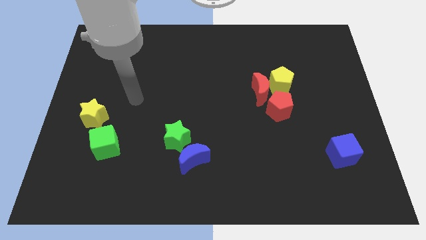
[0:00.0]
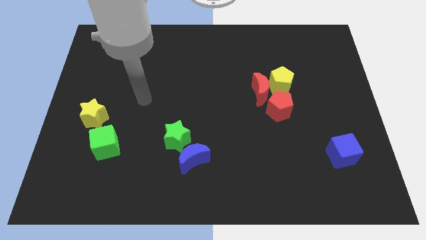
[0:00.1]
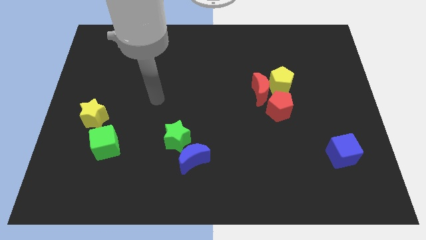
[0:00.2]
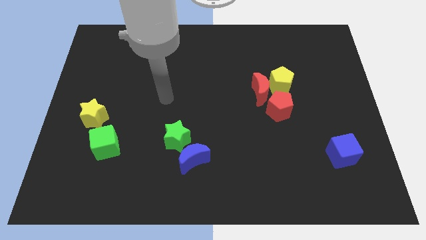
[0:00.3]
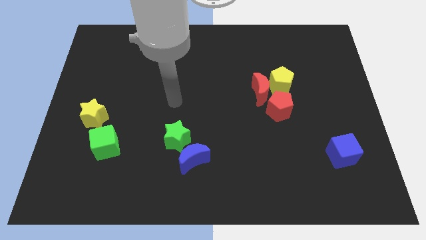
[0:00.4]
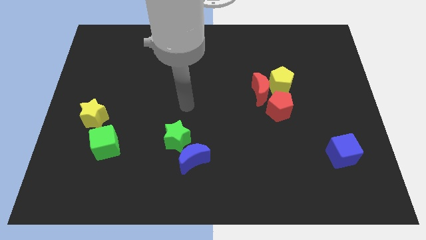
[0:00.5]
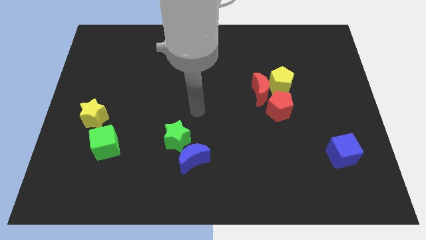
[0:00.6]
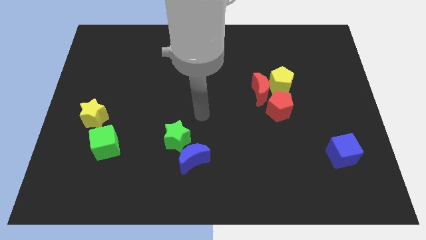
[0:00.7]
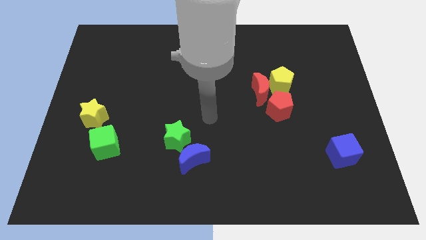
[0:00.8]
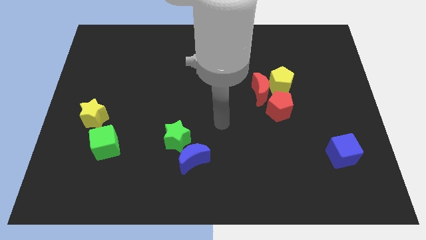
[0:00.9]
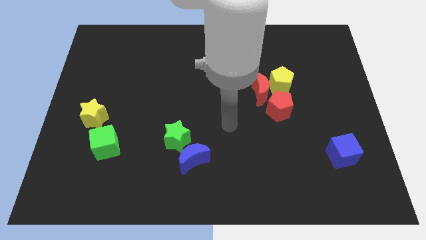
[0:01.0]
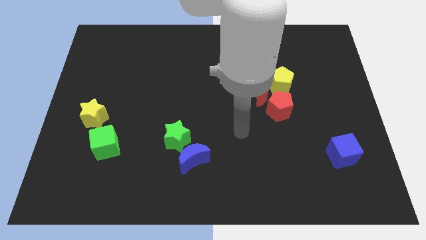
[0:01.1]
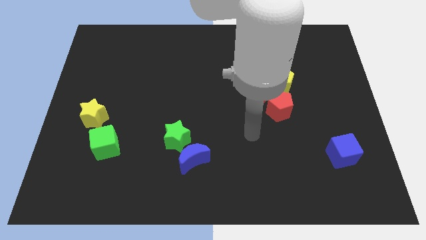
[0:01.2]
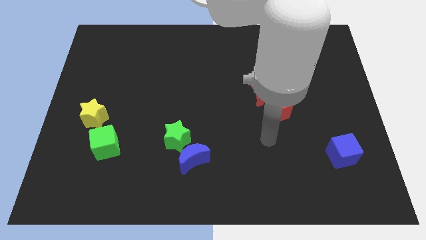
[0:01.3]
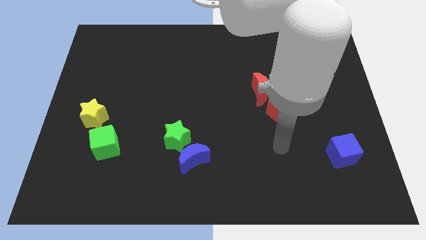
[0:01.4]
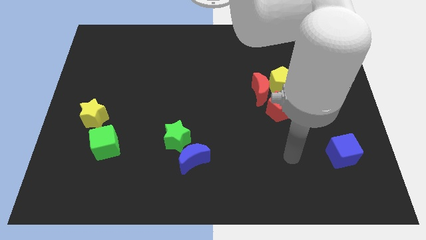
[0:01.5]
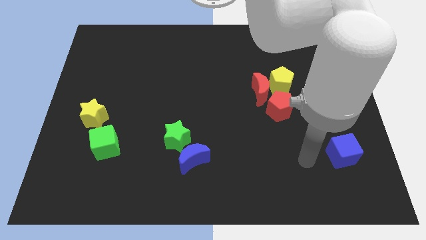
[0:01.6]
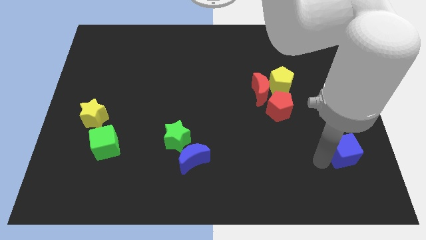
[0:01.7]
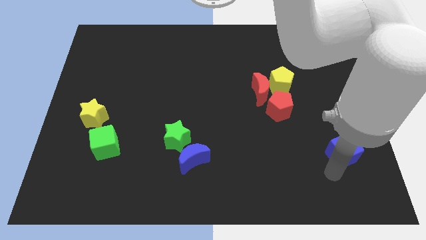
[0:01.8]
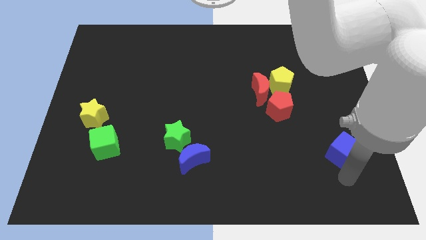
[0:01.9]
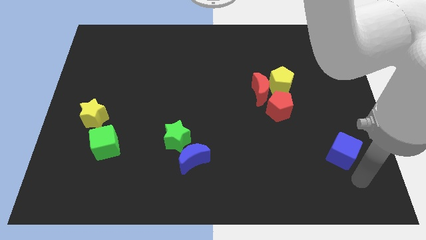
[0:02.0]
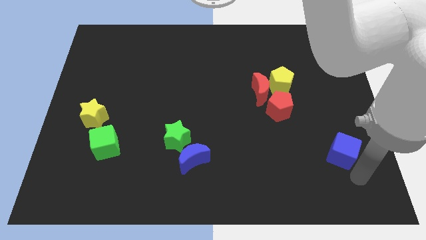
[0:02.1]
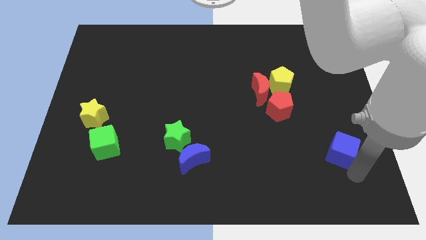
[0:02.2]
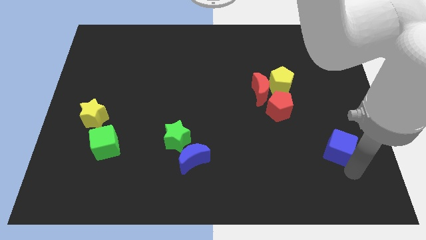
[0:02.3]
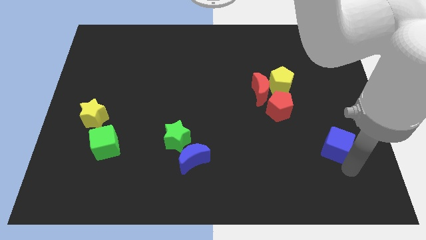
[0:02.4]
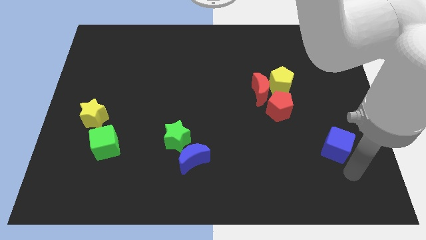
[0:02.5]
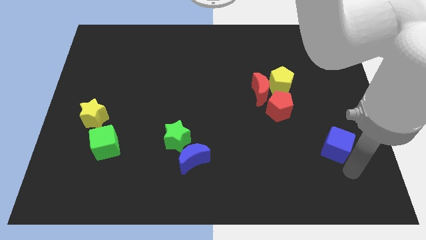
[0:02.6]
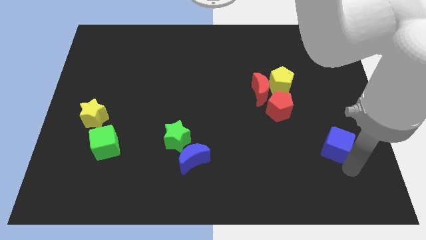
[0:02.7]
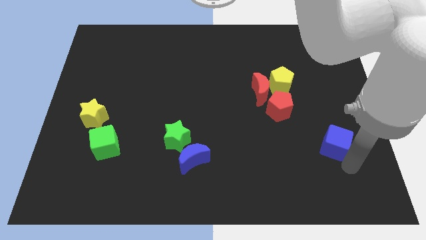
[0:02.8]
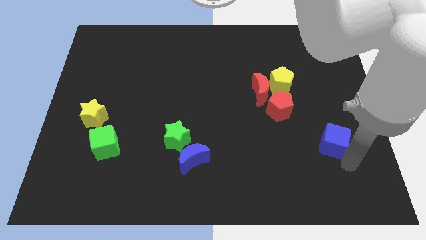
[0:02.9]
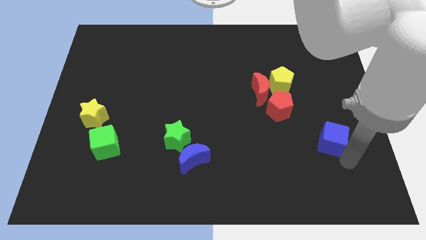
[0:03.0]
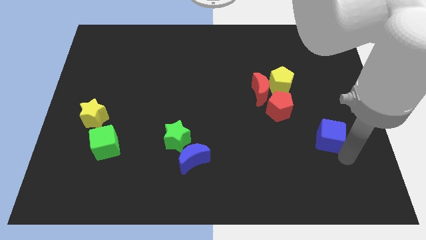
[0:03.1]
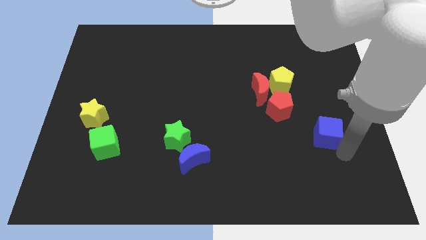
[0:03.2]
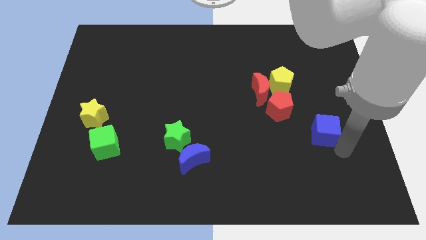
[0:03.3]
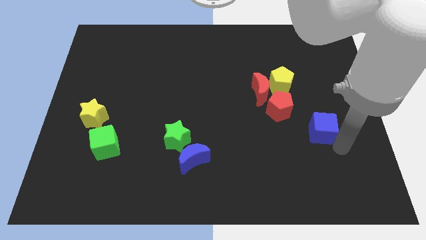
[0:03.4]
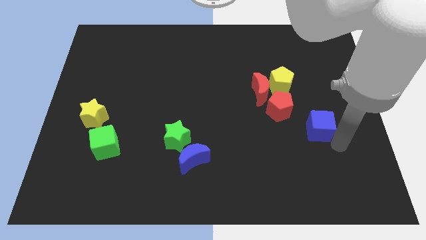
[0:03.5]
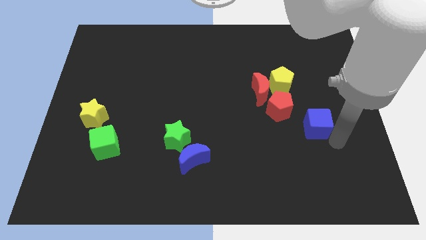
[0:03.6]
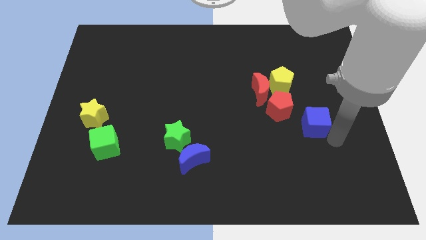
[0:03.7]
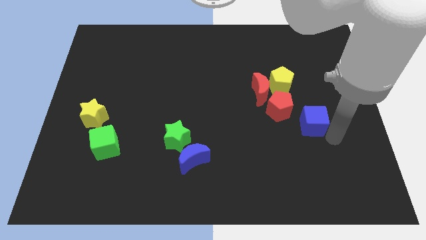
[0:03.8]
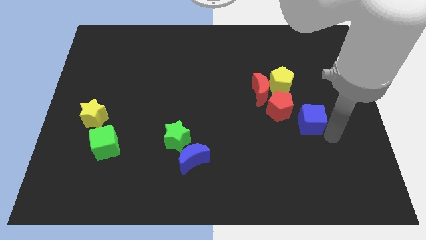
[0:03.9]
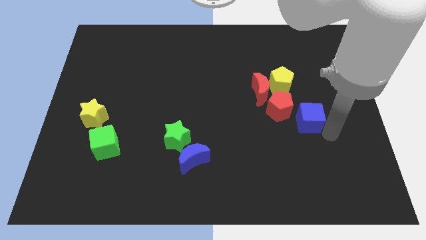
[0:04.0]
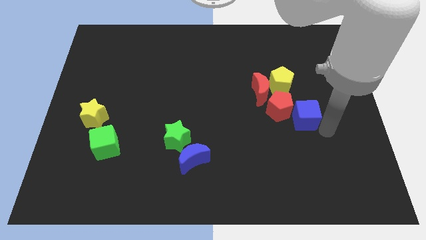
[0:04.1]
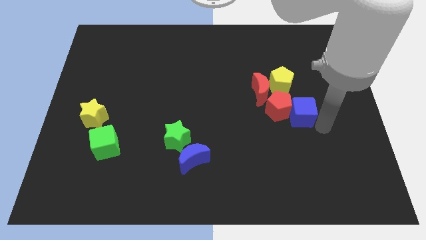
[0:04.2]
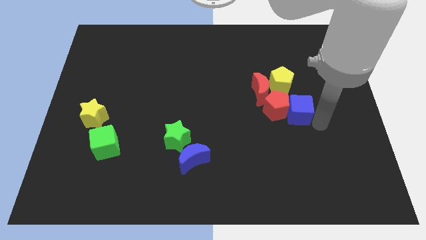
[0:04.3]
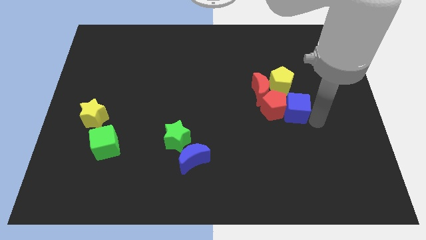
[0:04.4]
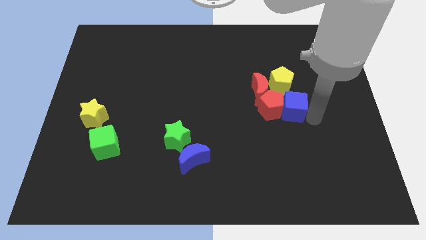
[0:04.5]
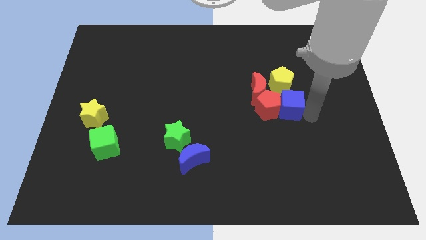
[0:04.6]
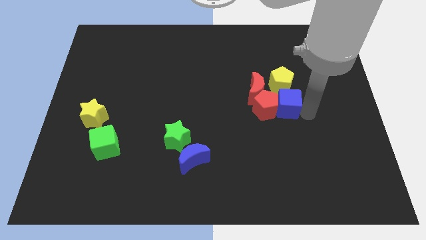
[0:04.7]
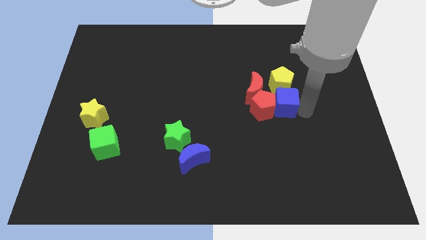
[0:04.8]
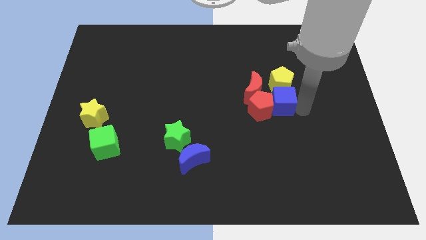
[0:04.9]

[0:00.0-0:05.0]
slide the blue cube to the yellow pentagon

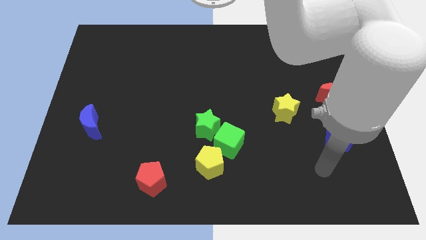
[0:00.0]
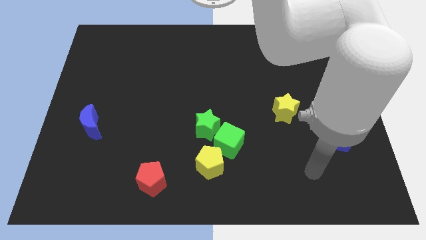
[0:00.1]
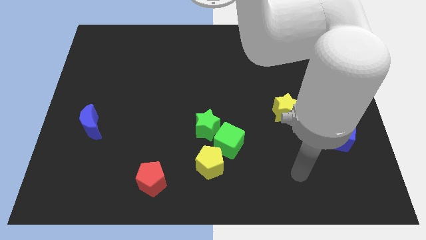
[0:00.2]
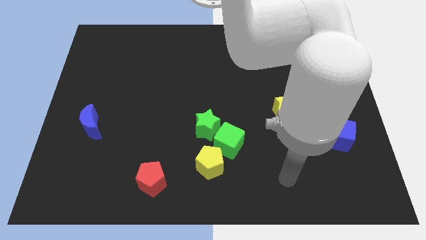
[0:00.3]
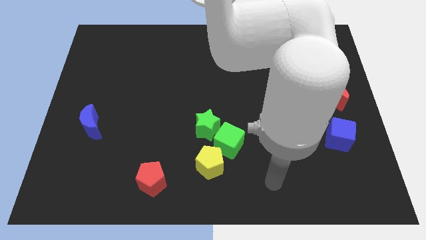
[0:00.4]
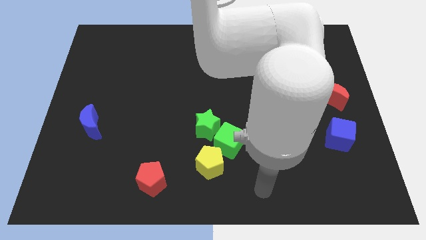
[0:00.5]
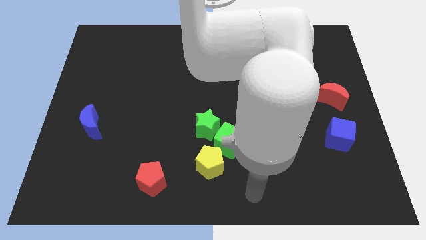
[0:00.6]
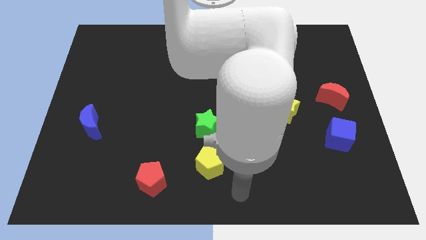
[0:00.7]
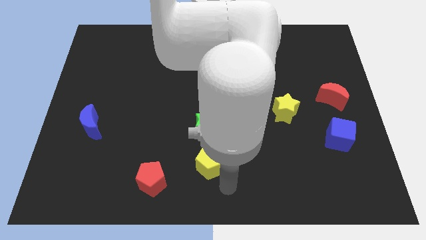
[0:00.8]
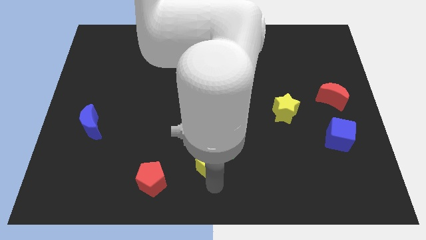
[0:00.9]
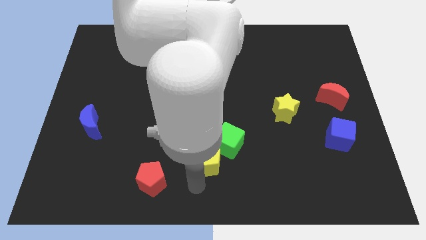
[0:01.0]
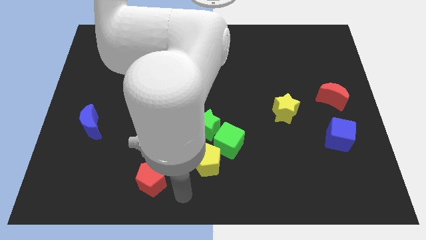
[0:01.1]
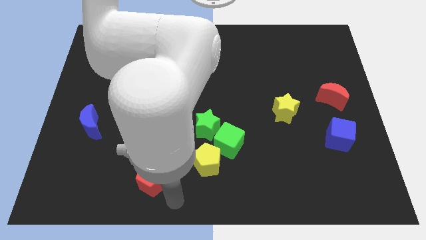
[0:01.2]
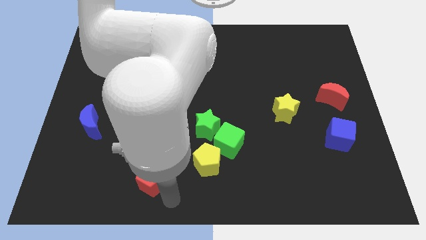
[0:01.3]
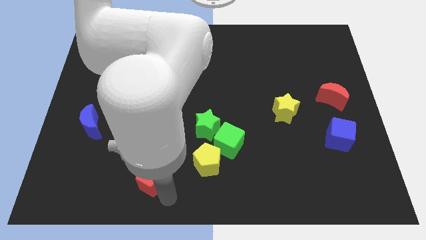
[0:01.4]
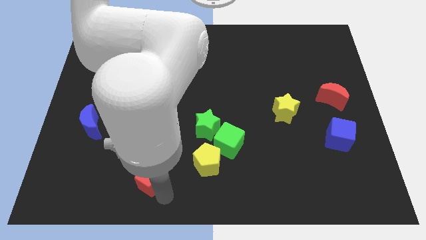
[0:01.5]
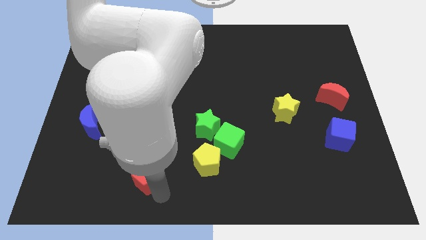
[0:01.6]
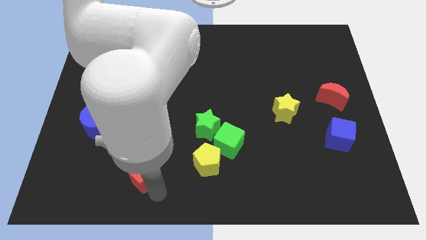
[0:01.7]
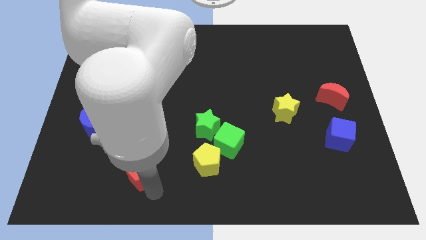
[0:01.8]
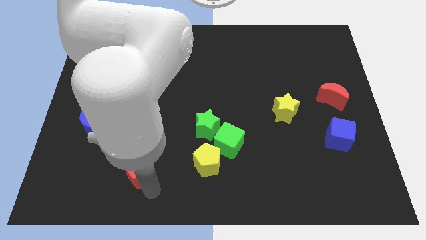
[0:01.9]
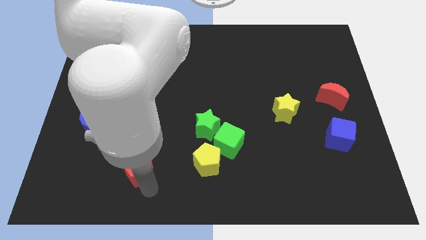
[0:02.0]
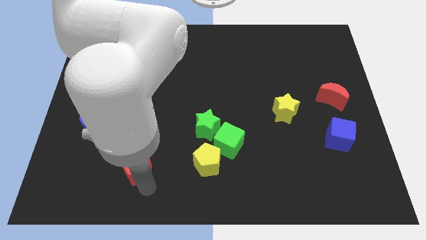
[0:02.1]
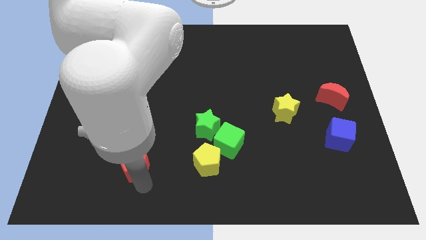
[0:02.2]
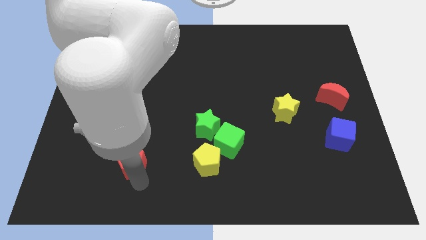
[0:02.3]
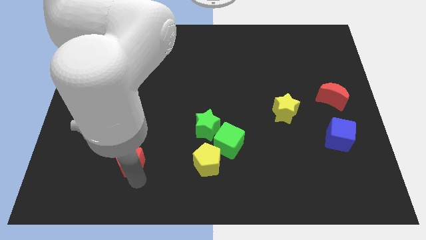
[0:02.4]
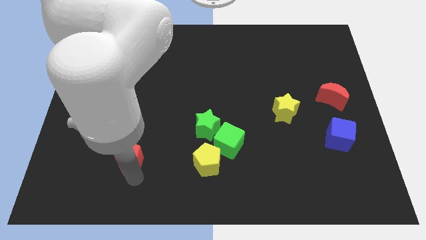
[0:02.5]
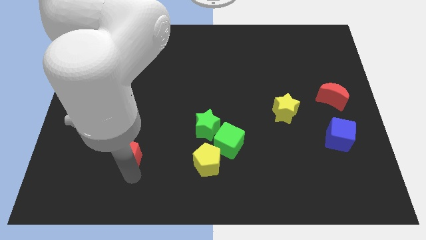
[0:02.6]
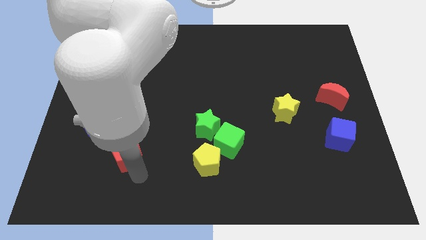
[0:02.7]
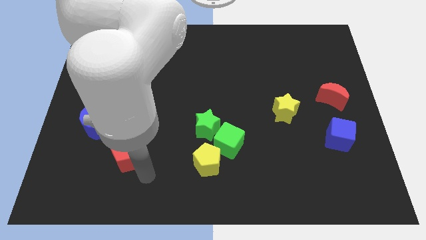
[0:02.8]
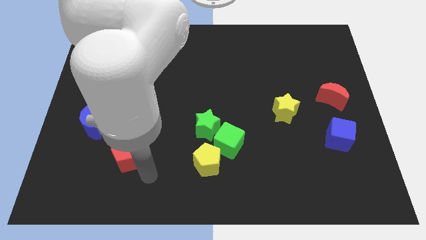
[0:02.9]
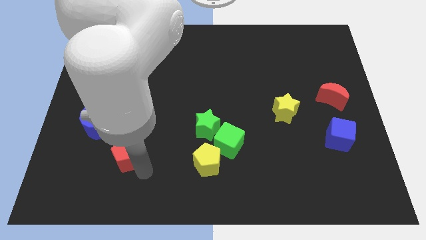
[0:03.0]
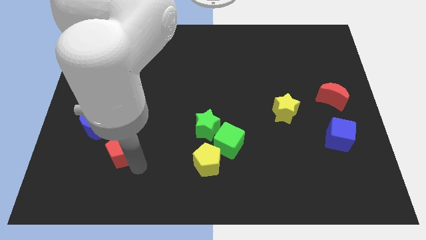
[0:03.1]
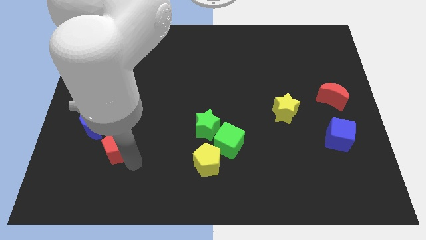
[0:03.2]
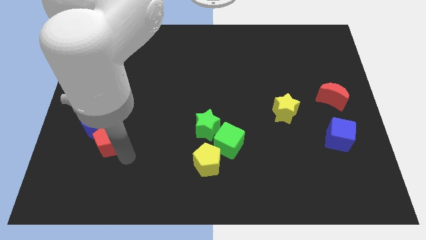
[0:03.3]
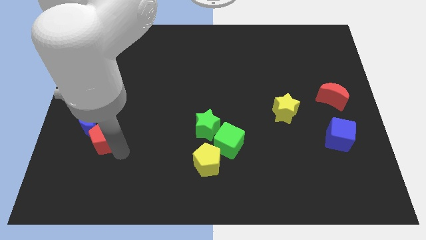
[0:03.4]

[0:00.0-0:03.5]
put the red pentagon towards the blue moon
